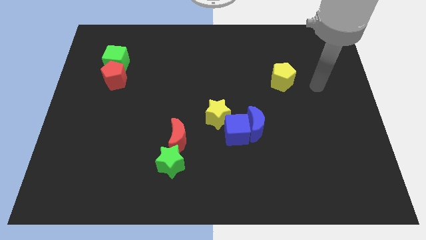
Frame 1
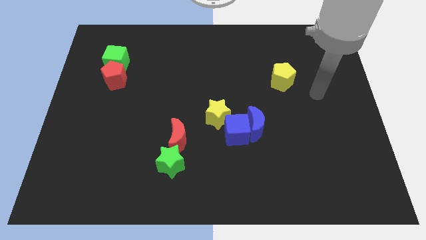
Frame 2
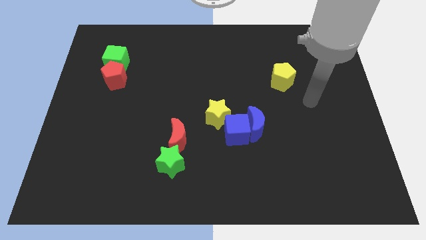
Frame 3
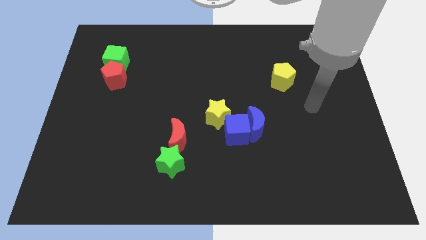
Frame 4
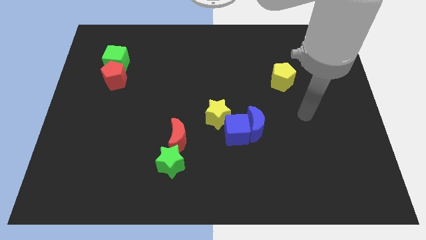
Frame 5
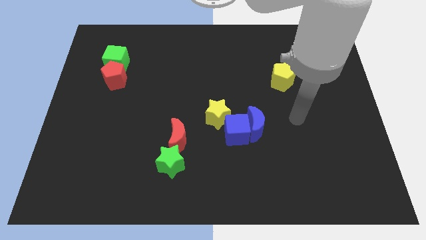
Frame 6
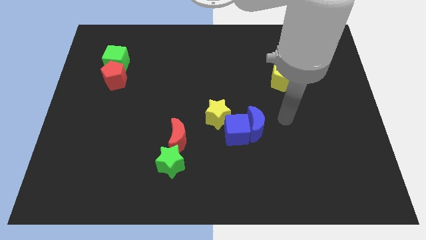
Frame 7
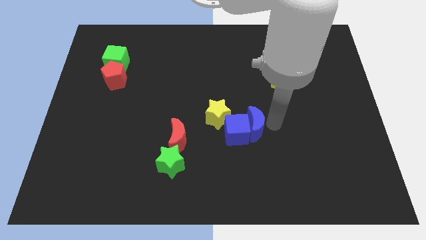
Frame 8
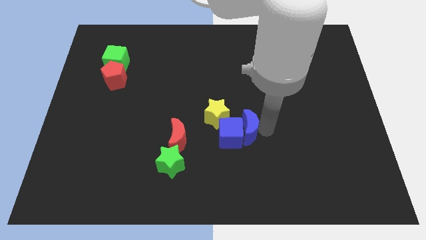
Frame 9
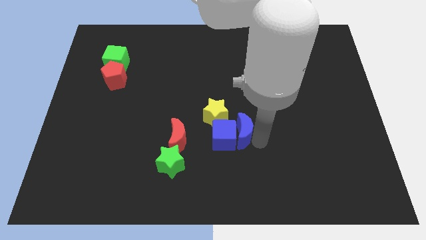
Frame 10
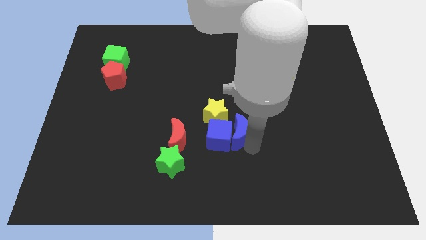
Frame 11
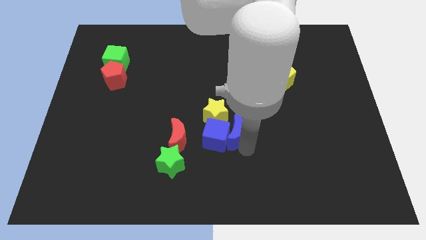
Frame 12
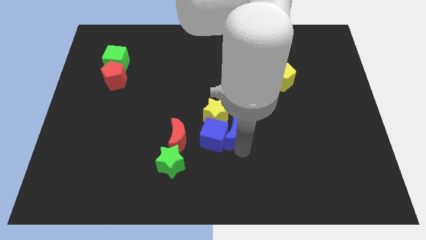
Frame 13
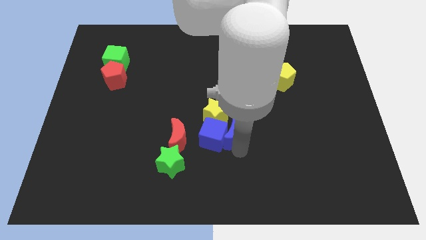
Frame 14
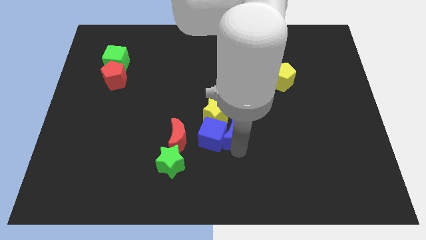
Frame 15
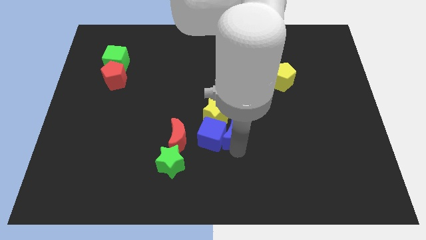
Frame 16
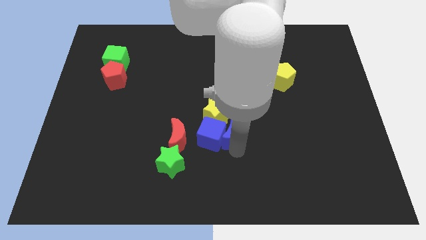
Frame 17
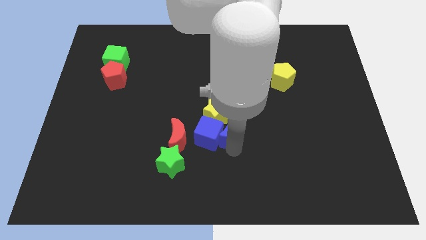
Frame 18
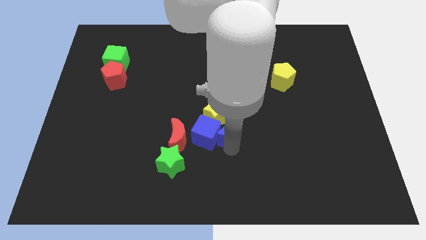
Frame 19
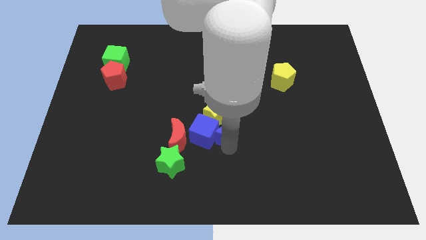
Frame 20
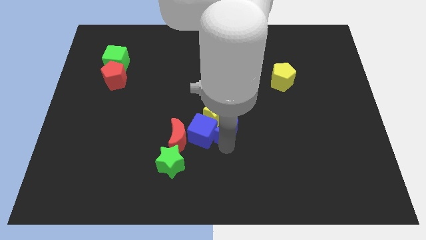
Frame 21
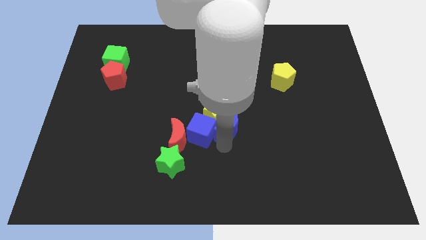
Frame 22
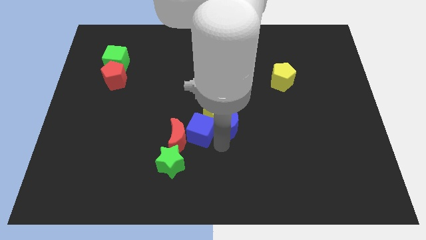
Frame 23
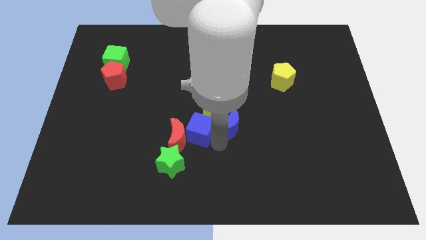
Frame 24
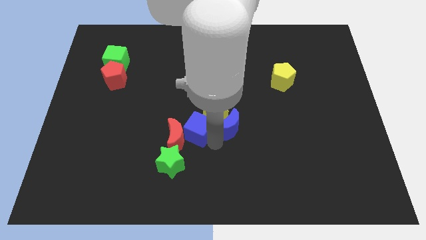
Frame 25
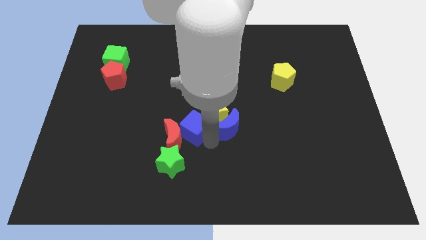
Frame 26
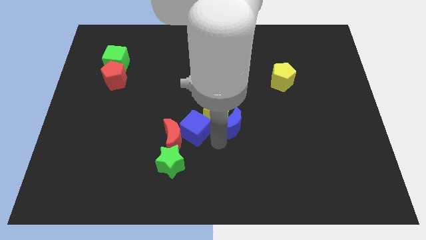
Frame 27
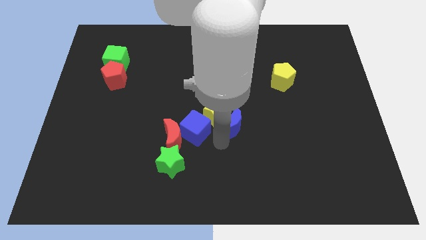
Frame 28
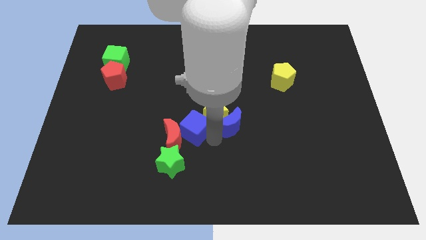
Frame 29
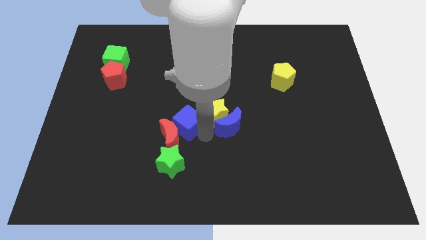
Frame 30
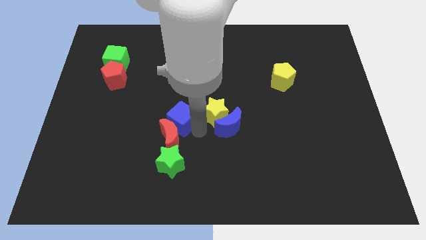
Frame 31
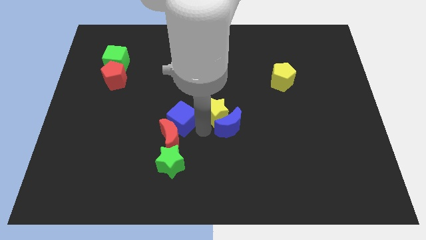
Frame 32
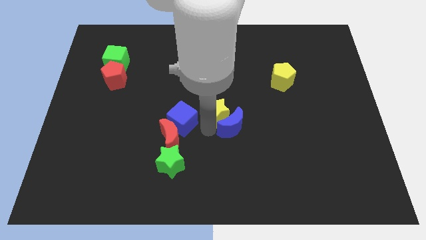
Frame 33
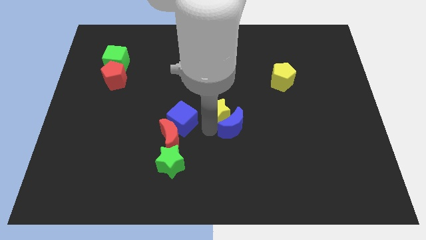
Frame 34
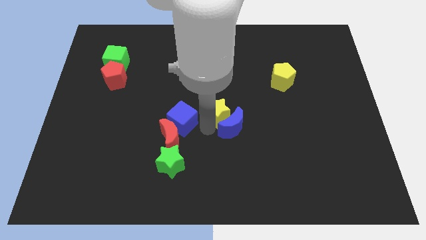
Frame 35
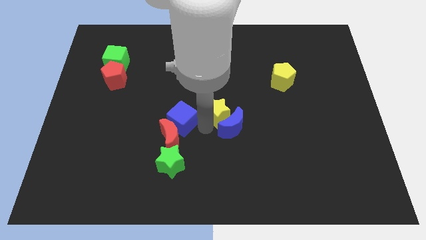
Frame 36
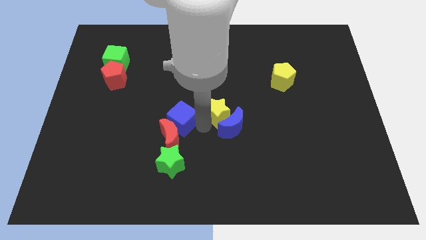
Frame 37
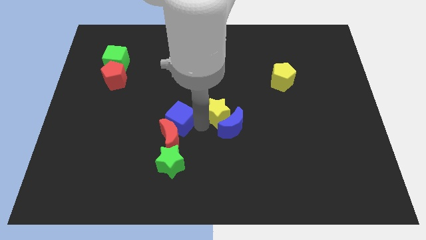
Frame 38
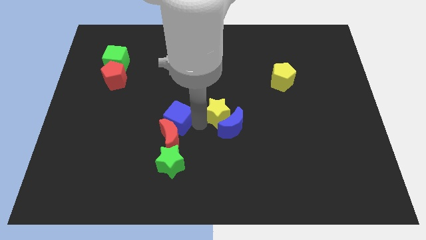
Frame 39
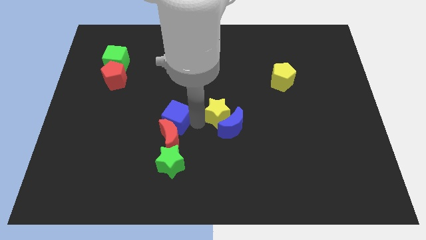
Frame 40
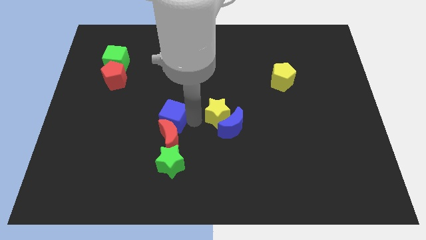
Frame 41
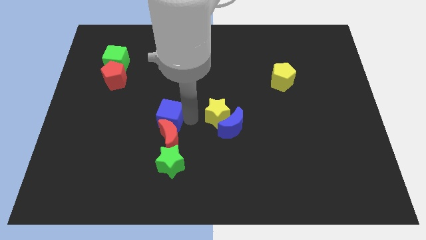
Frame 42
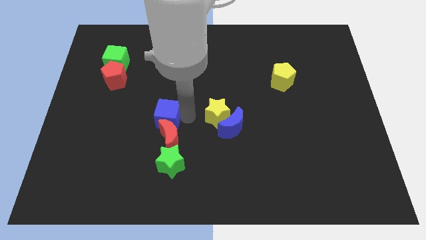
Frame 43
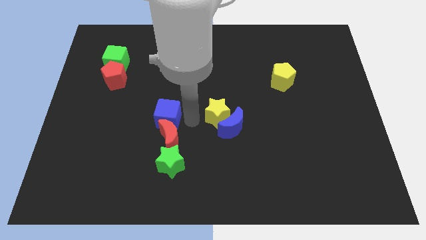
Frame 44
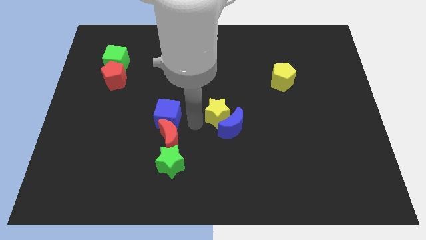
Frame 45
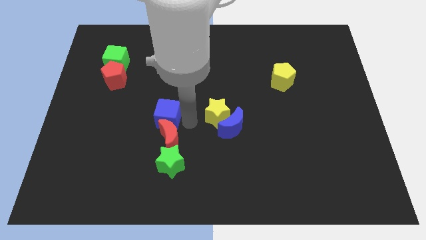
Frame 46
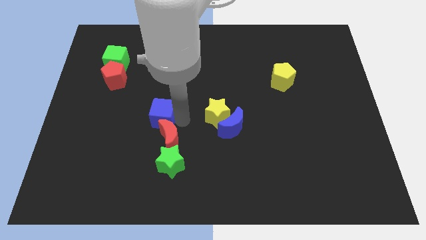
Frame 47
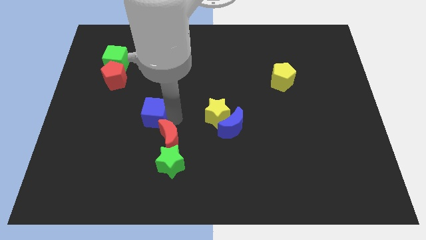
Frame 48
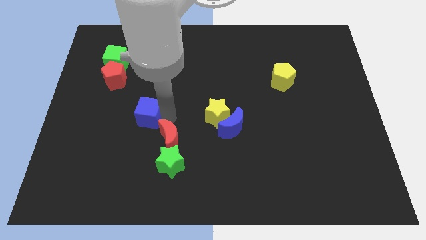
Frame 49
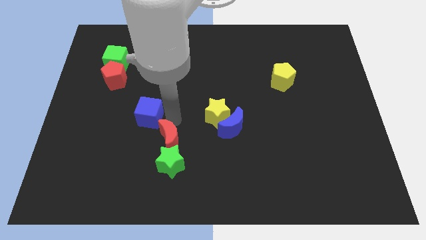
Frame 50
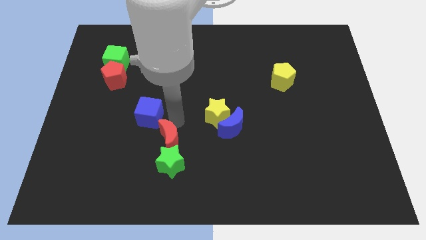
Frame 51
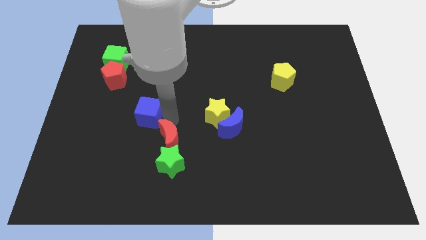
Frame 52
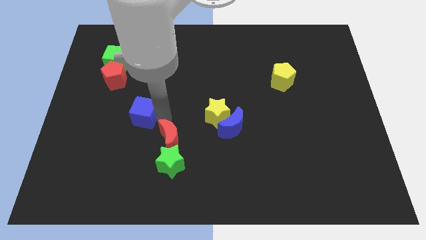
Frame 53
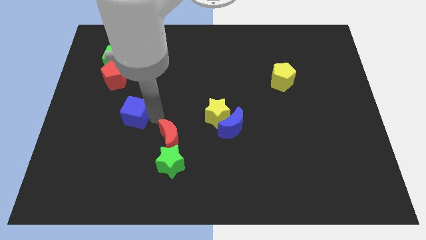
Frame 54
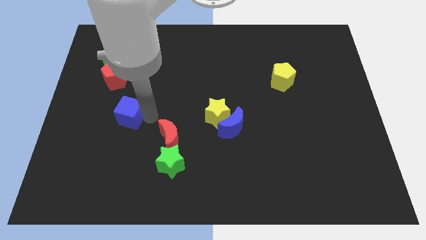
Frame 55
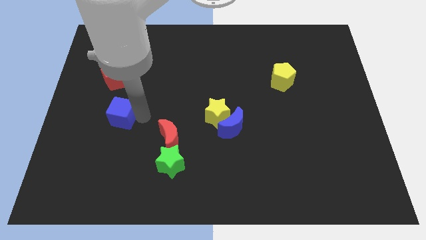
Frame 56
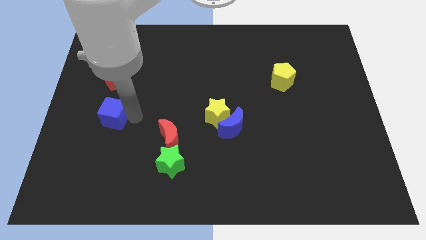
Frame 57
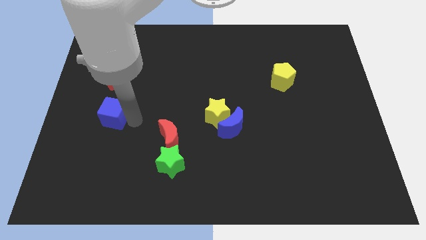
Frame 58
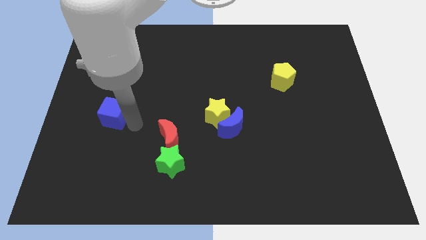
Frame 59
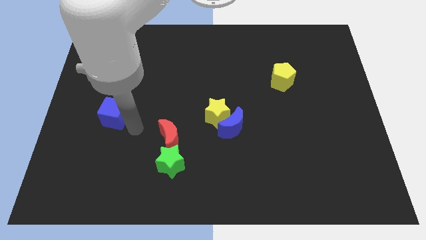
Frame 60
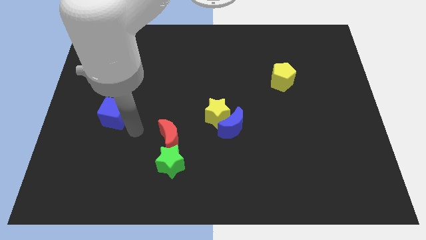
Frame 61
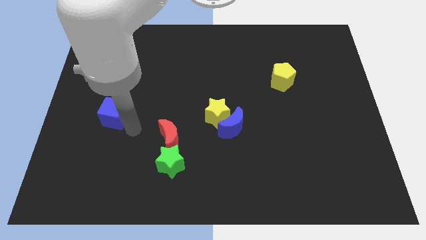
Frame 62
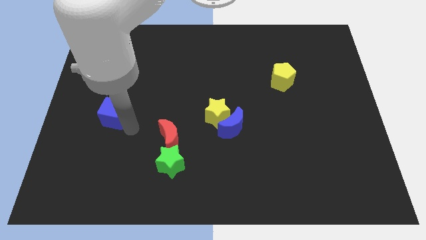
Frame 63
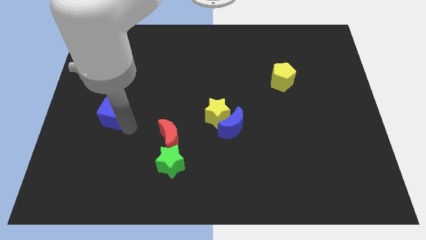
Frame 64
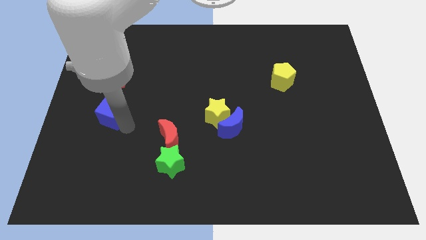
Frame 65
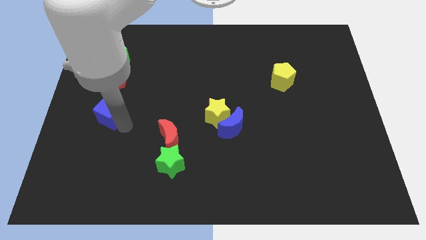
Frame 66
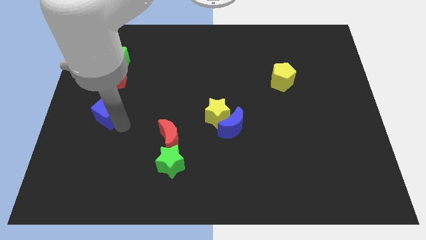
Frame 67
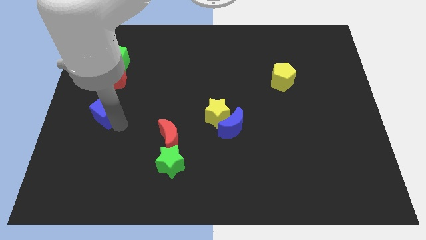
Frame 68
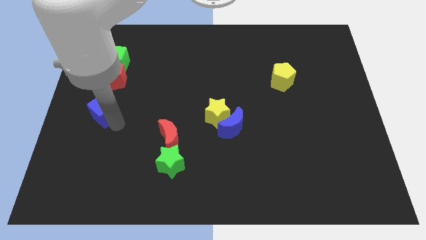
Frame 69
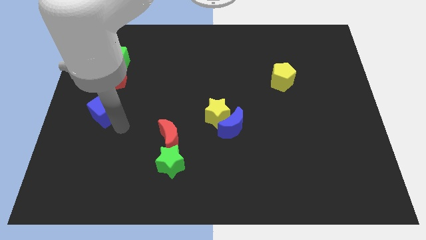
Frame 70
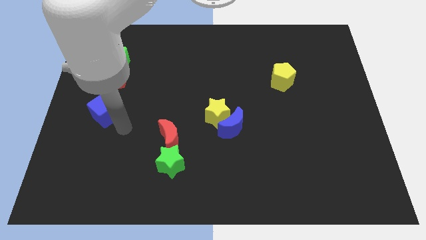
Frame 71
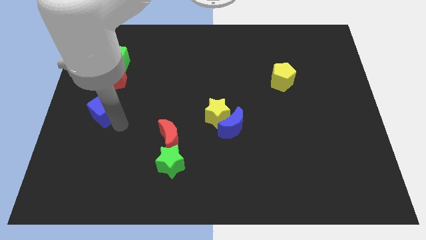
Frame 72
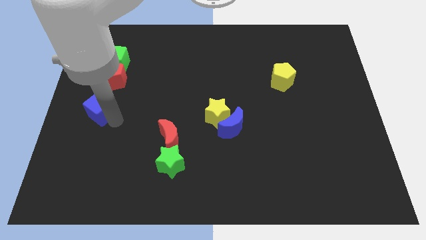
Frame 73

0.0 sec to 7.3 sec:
move the blue cube to the center left
